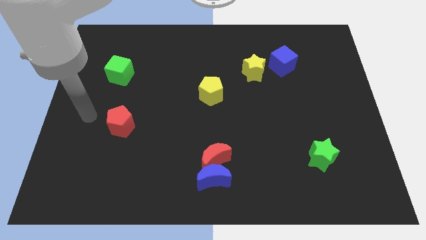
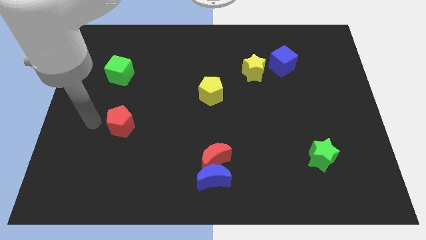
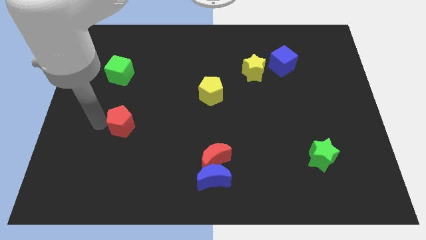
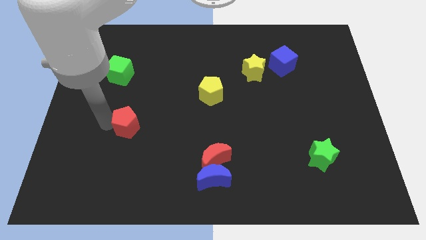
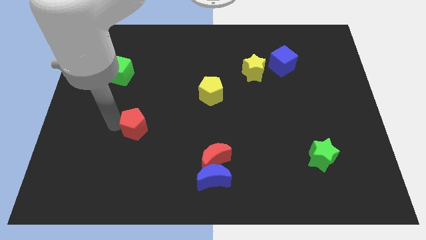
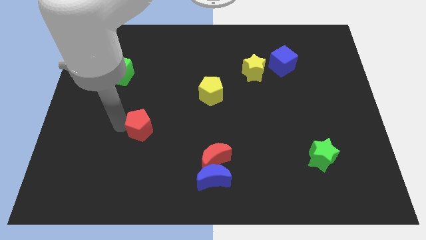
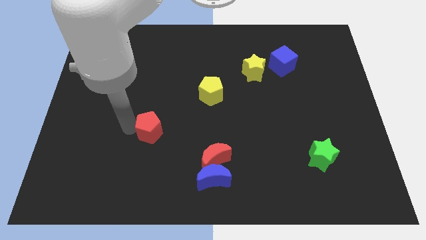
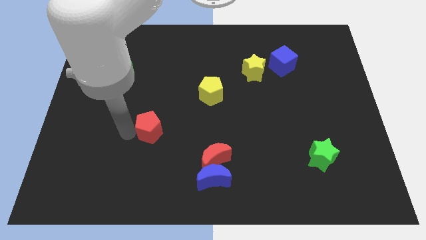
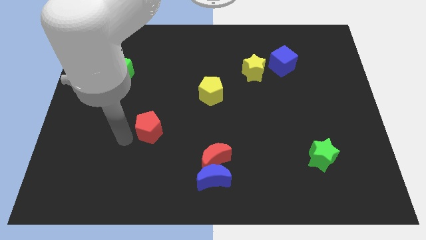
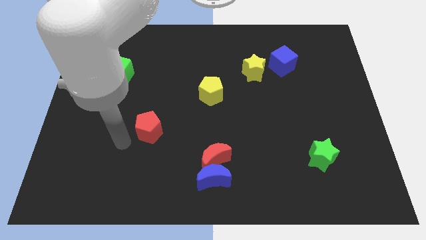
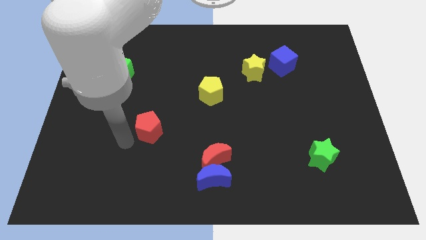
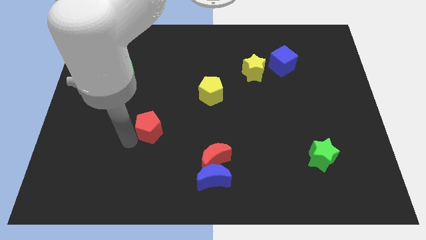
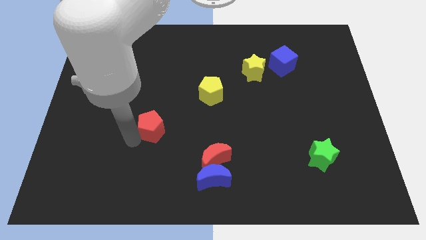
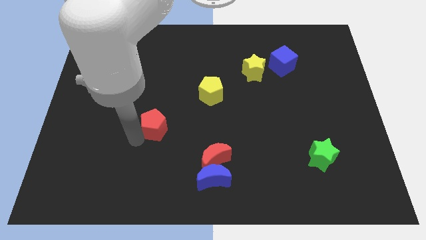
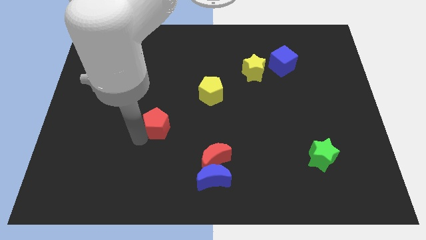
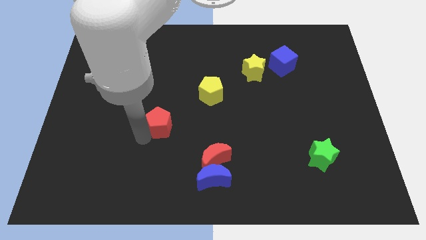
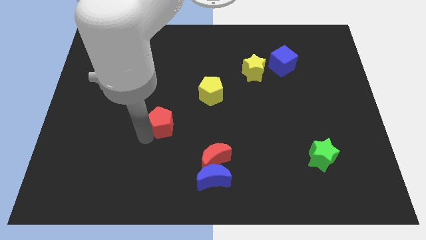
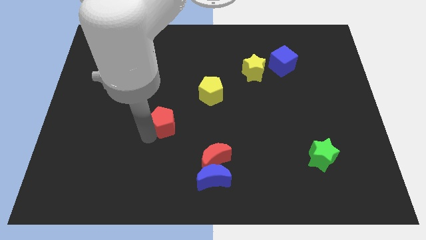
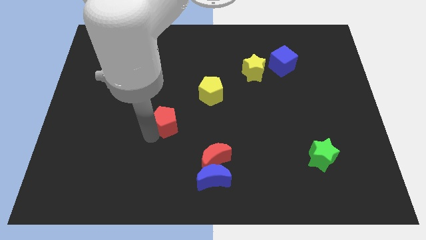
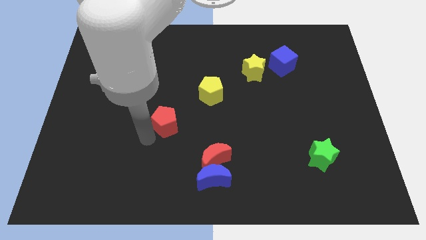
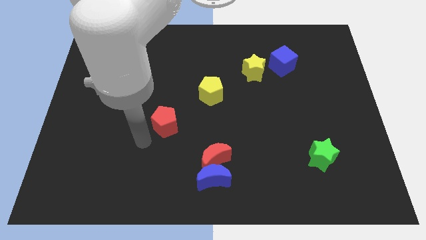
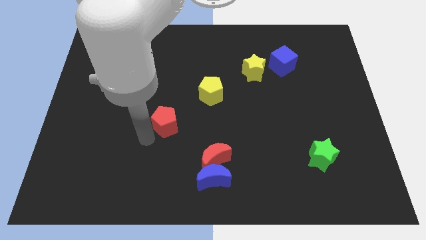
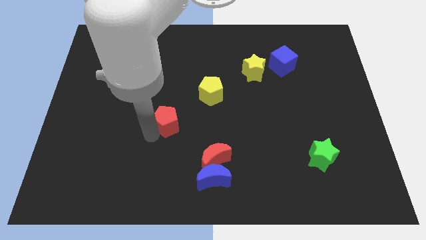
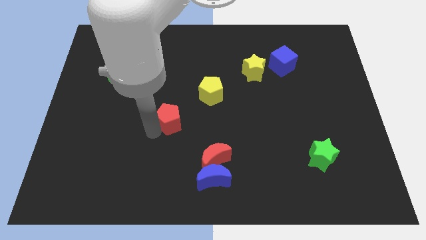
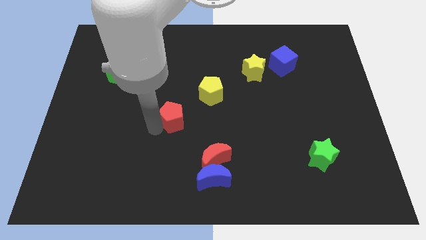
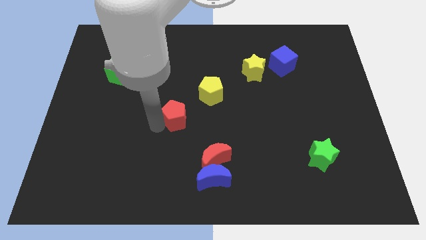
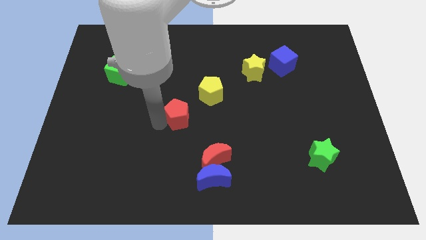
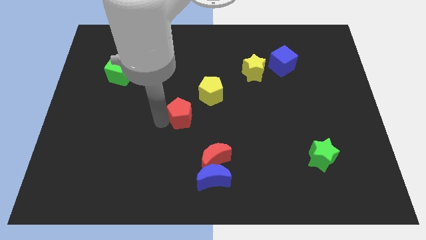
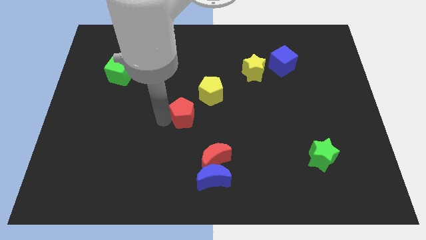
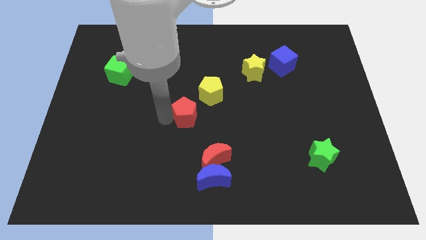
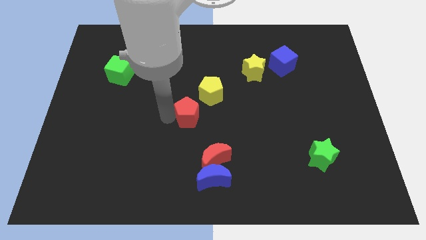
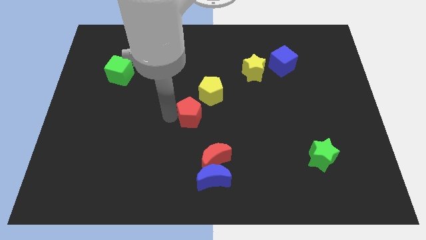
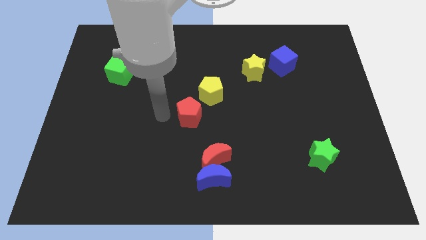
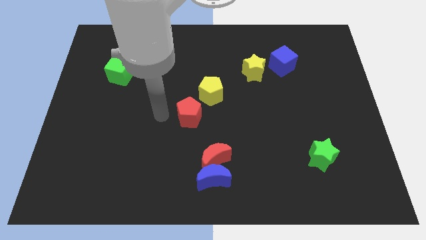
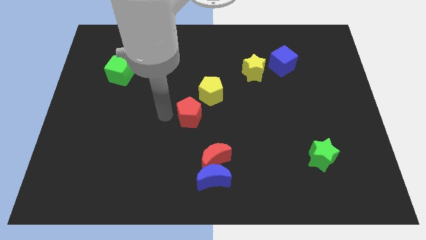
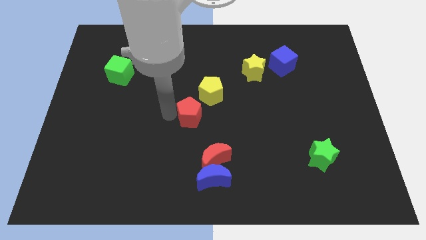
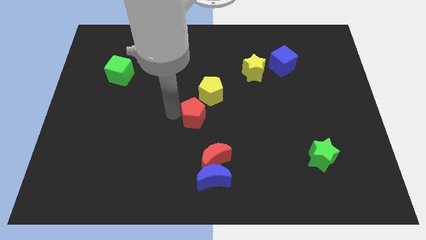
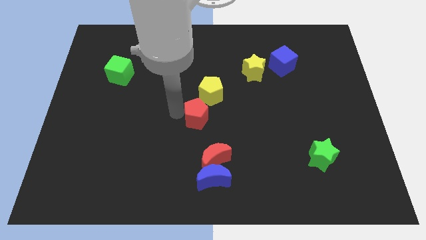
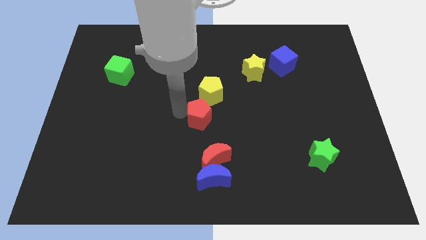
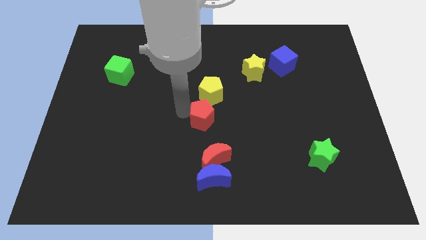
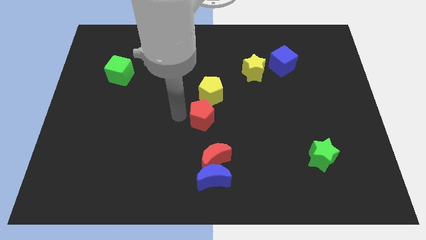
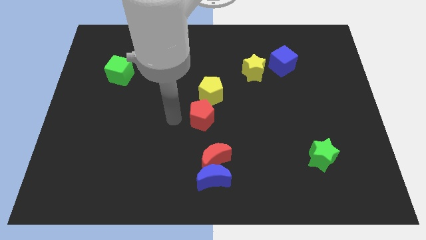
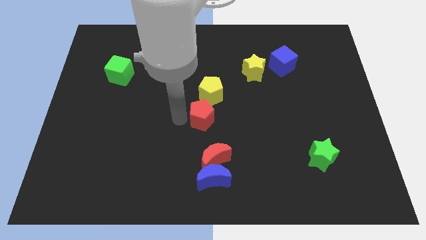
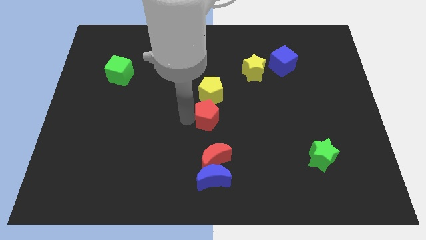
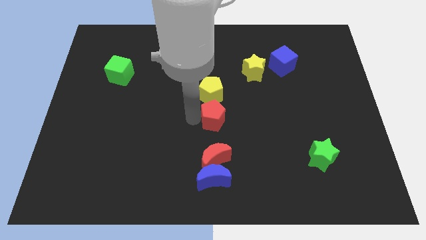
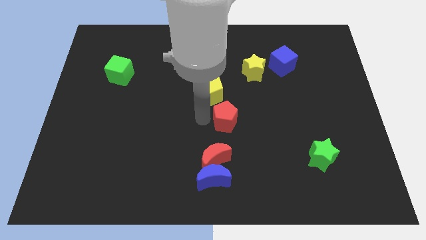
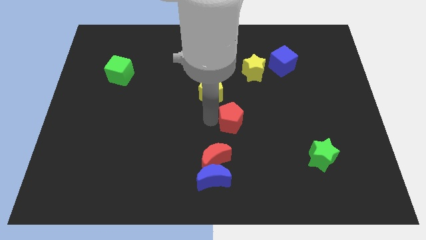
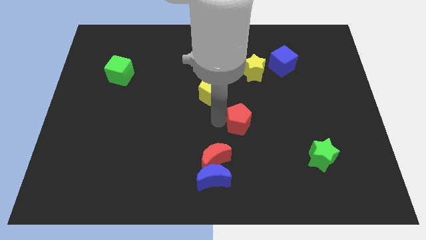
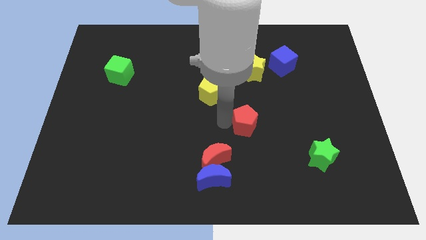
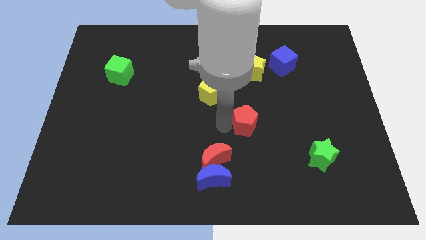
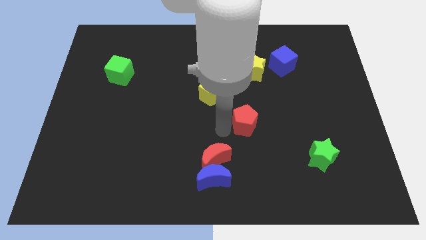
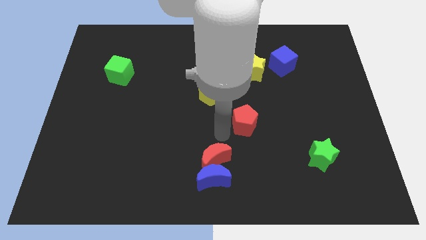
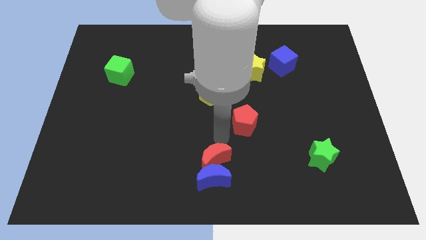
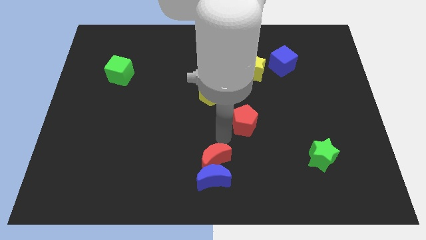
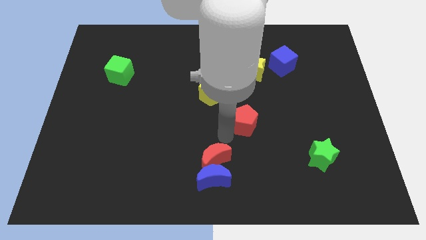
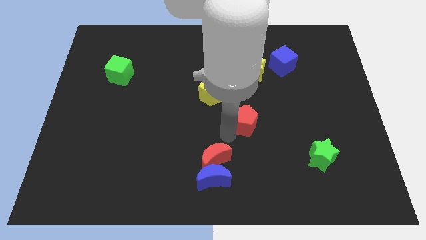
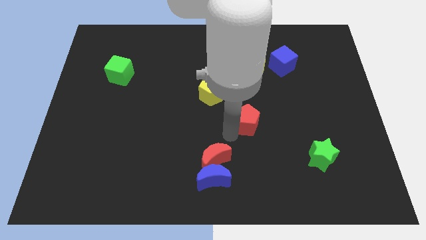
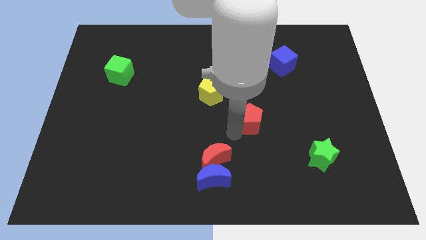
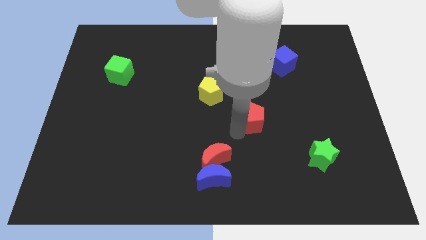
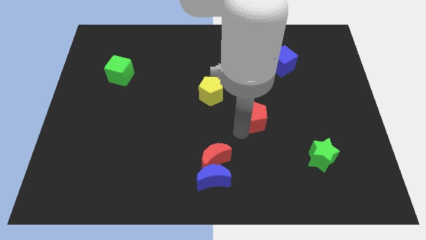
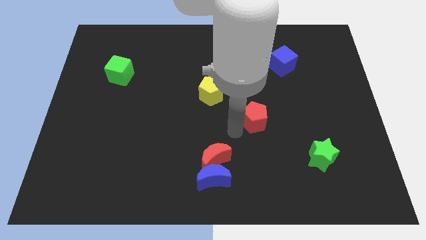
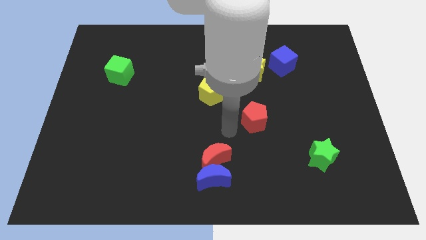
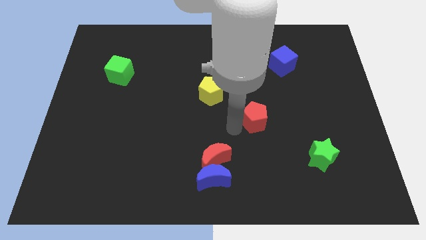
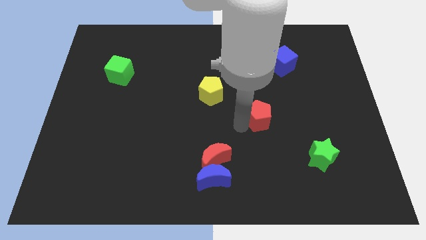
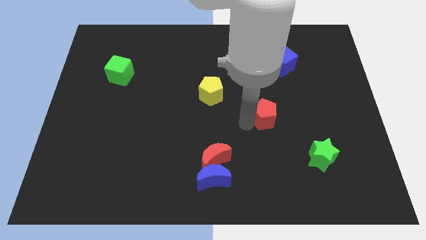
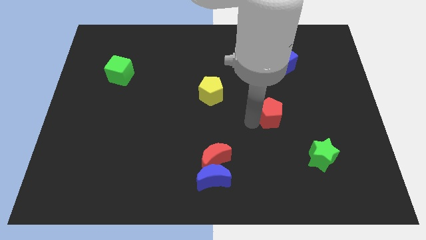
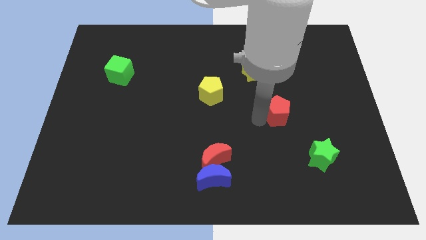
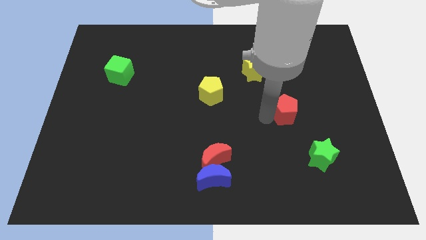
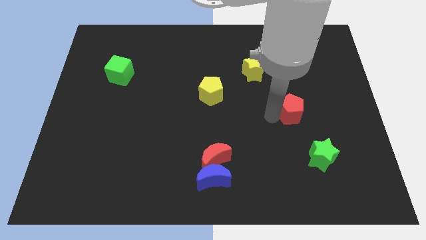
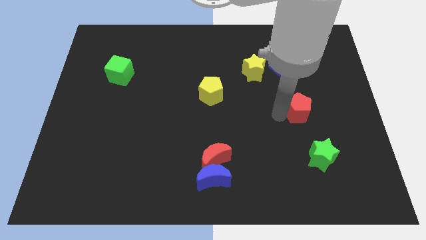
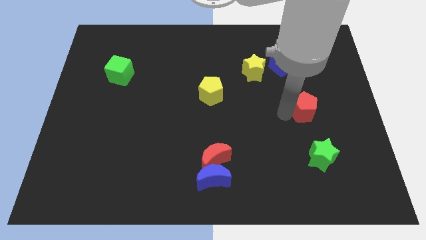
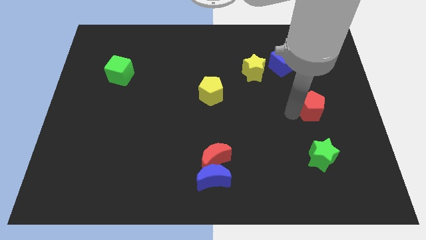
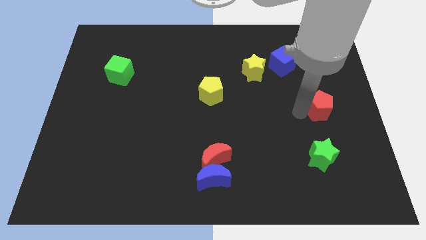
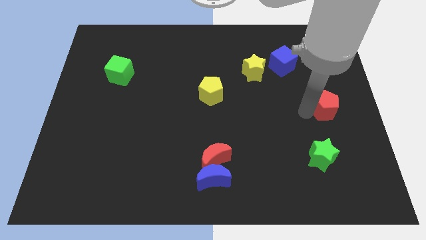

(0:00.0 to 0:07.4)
move the red pentagon to the center right
